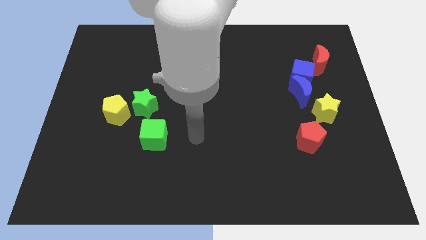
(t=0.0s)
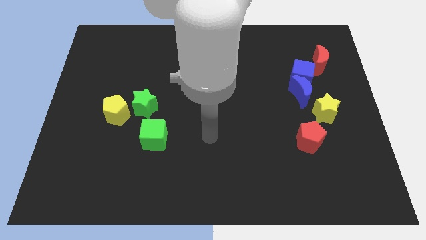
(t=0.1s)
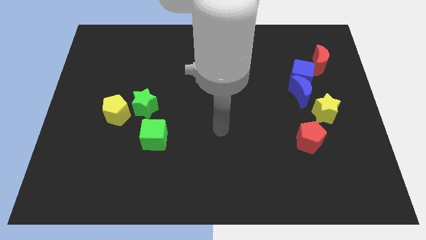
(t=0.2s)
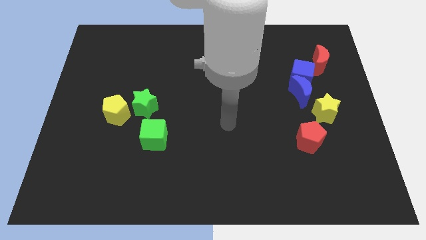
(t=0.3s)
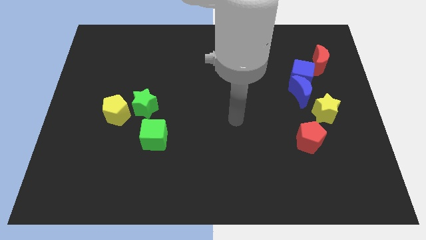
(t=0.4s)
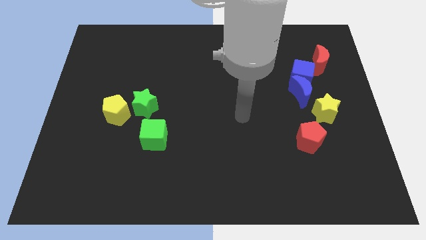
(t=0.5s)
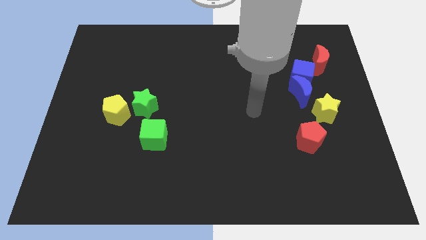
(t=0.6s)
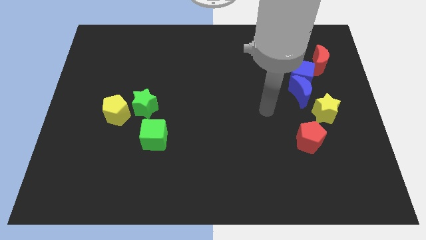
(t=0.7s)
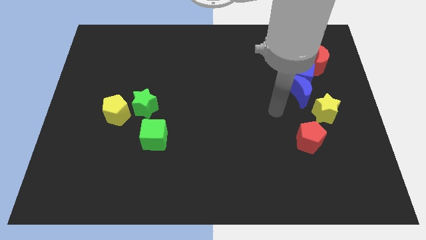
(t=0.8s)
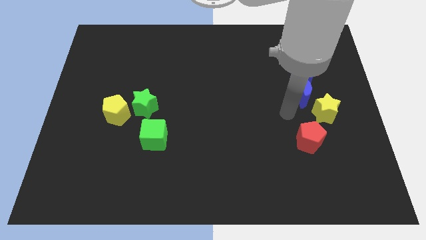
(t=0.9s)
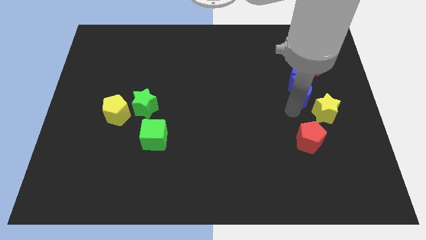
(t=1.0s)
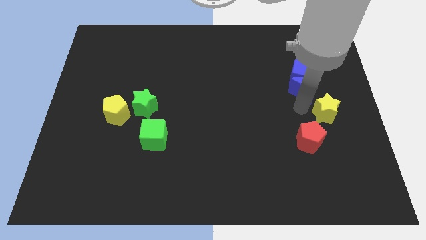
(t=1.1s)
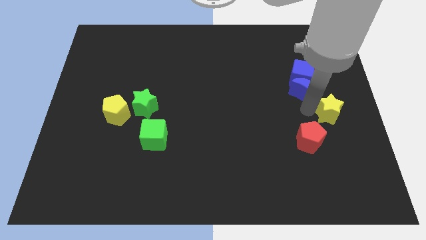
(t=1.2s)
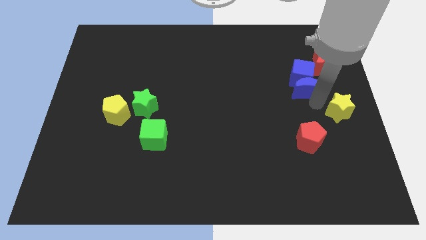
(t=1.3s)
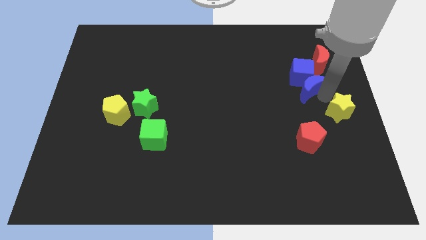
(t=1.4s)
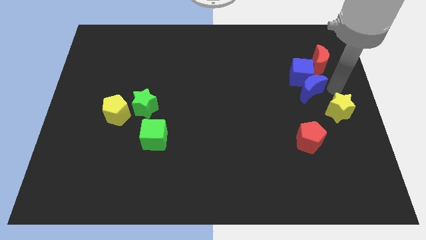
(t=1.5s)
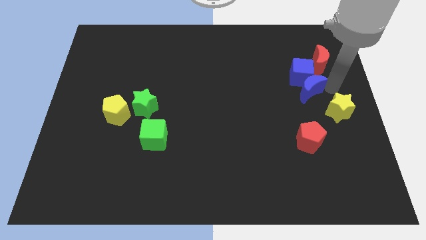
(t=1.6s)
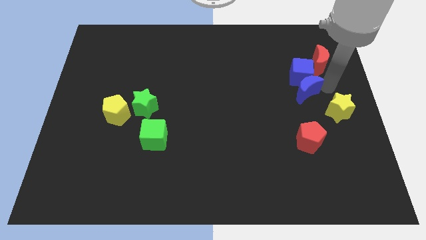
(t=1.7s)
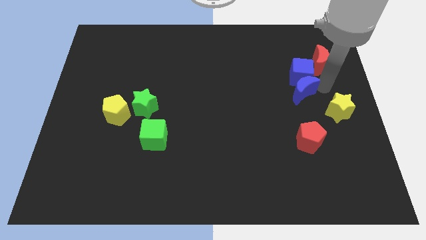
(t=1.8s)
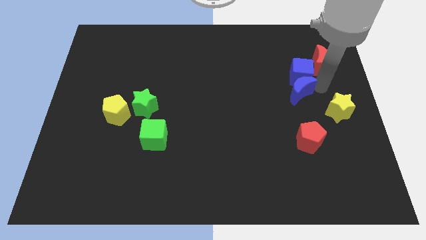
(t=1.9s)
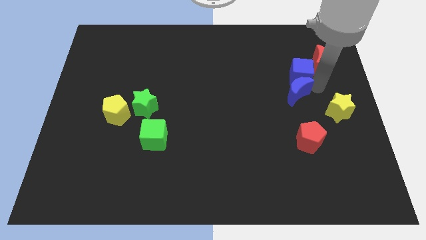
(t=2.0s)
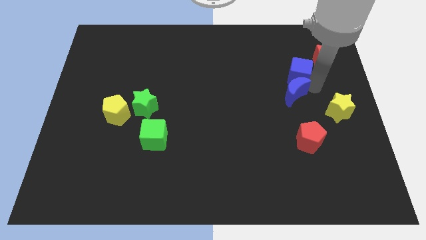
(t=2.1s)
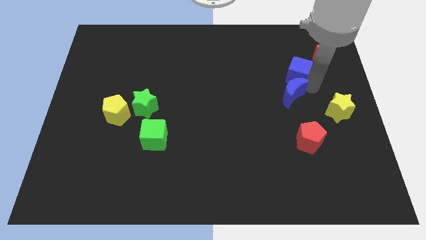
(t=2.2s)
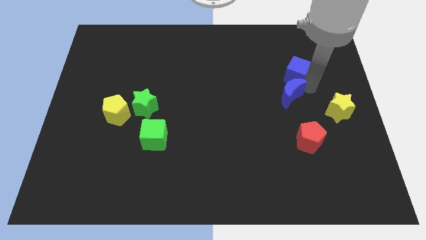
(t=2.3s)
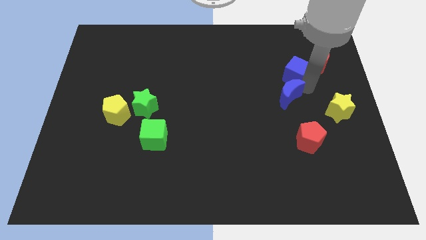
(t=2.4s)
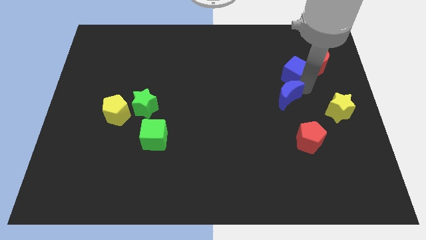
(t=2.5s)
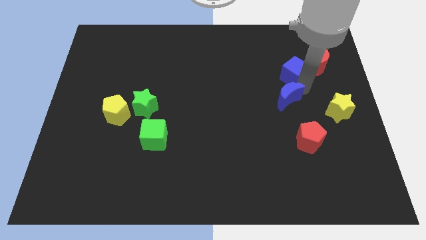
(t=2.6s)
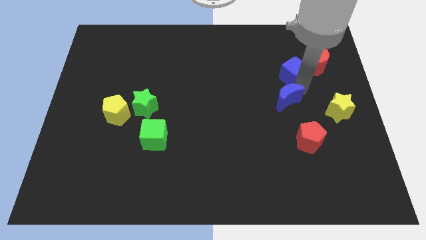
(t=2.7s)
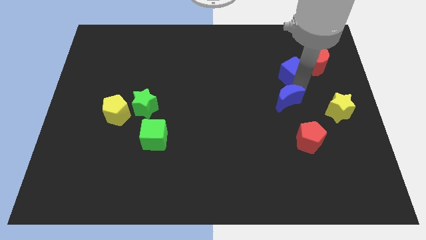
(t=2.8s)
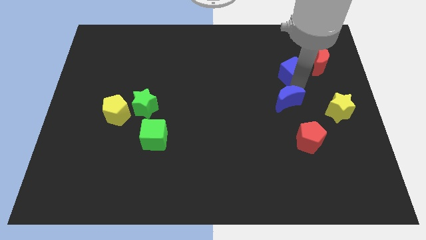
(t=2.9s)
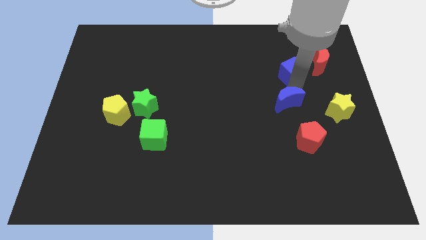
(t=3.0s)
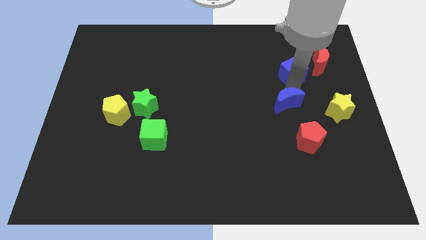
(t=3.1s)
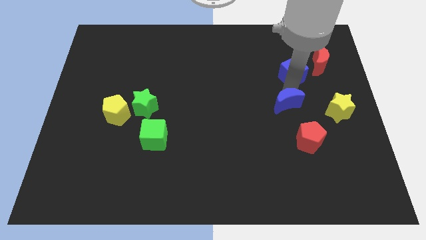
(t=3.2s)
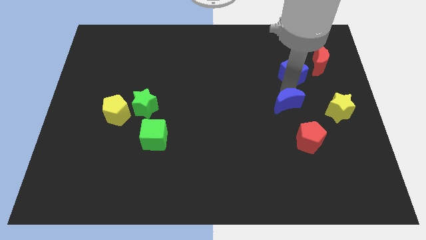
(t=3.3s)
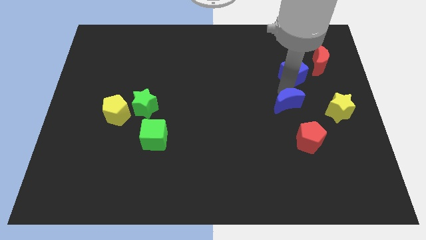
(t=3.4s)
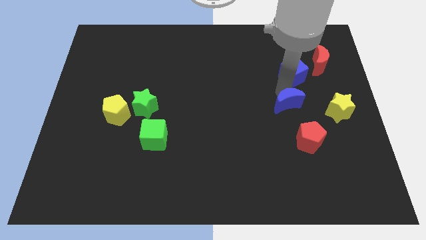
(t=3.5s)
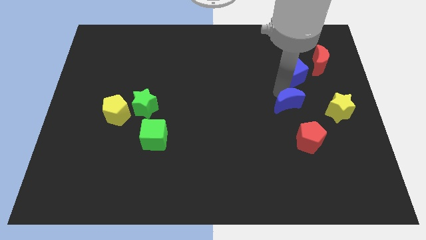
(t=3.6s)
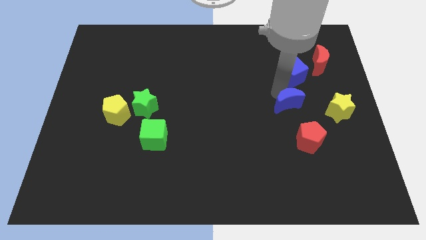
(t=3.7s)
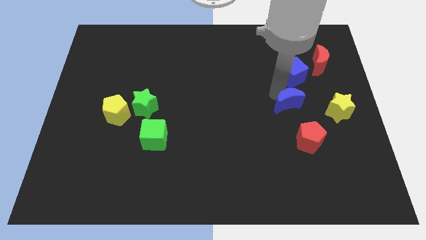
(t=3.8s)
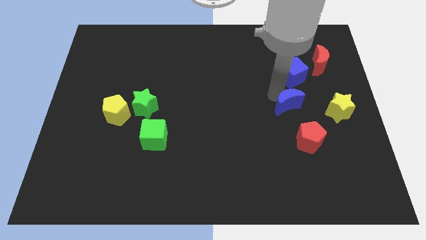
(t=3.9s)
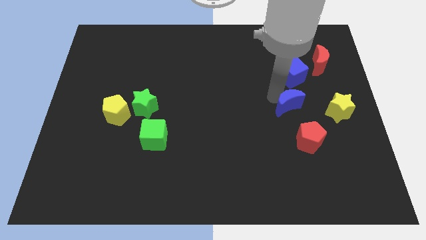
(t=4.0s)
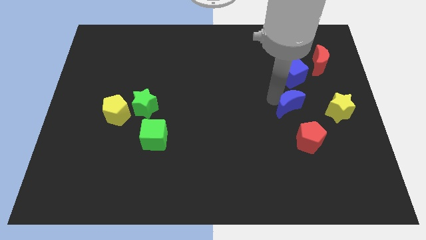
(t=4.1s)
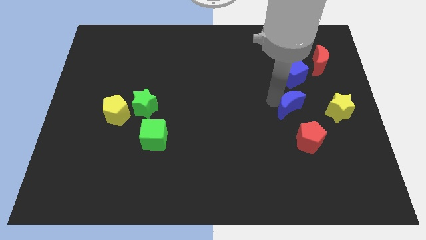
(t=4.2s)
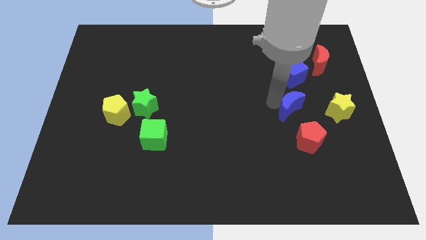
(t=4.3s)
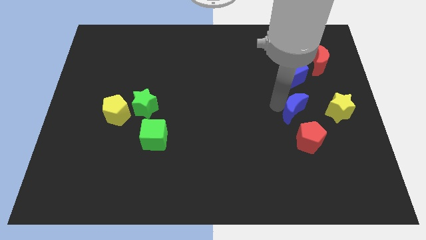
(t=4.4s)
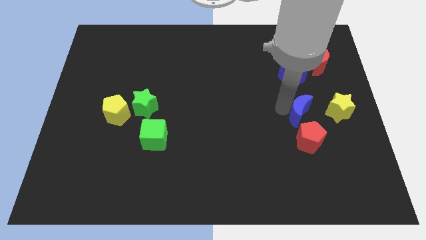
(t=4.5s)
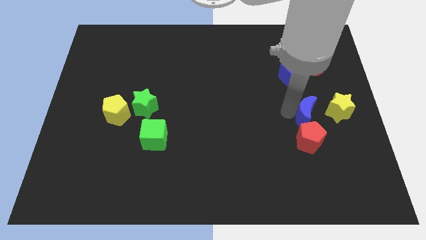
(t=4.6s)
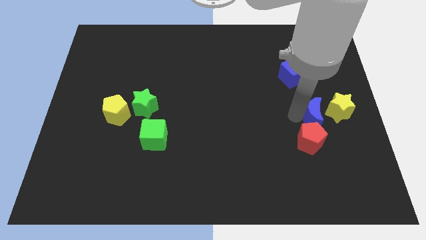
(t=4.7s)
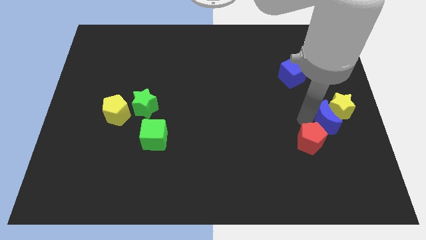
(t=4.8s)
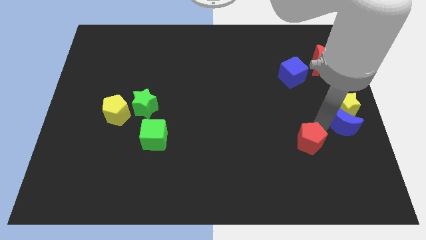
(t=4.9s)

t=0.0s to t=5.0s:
pull the blue moon apart from the blue cube and yellow star

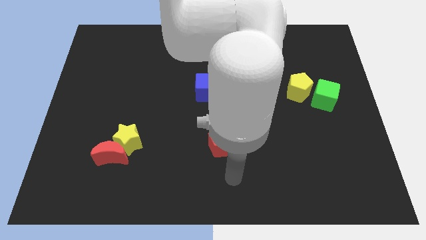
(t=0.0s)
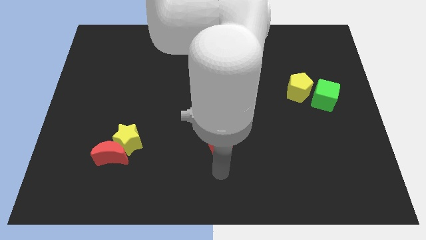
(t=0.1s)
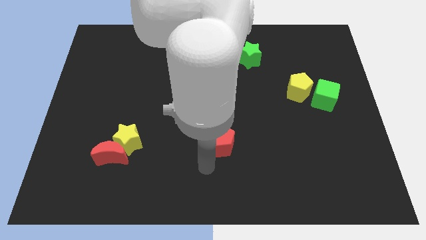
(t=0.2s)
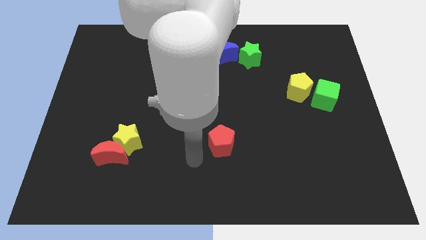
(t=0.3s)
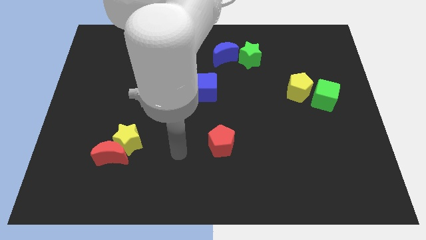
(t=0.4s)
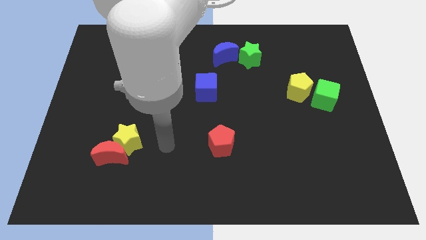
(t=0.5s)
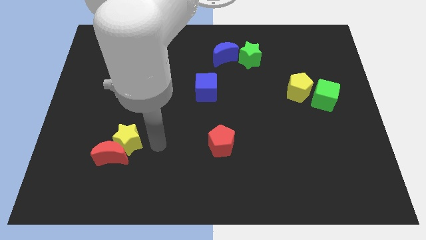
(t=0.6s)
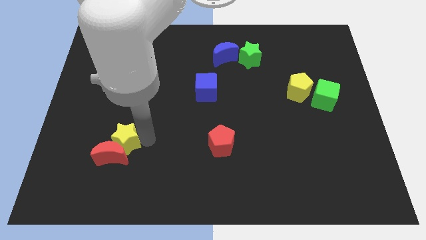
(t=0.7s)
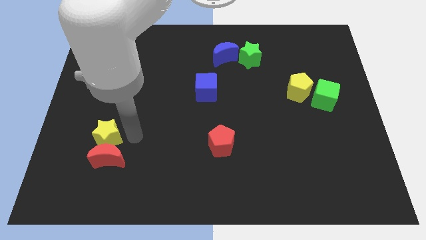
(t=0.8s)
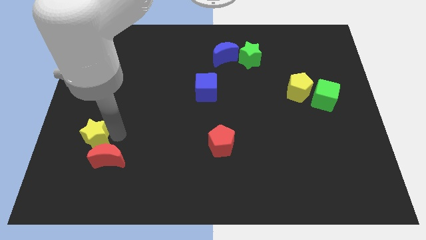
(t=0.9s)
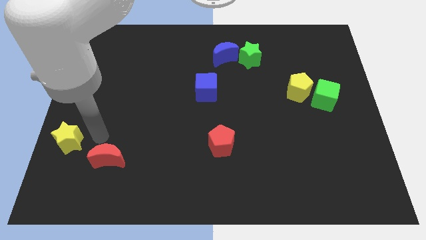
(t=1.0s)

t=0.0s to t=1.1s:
separate the red moon from the yellow star

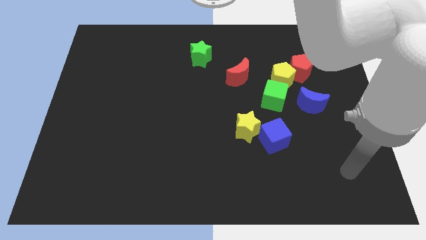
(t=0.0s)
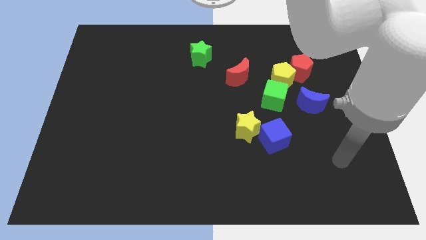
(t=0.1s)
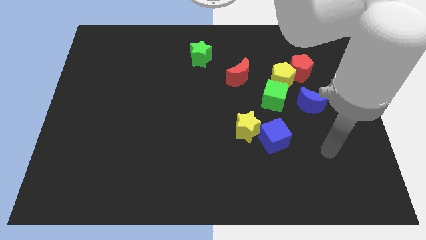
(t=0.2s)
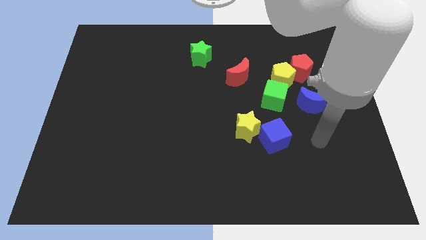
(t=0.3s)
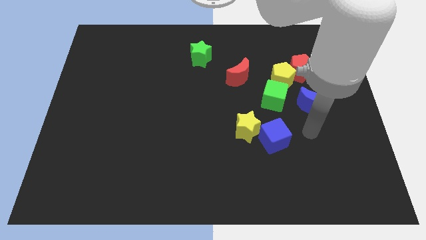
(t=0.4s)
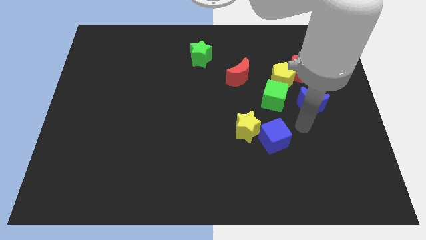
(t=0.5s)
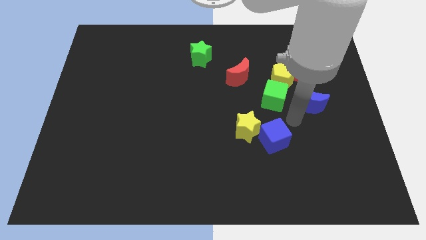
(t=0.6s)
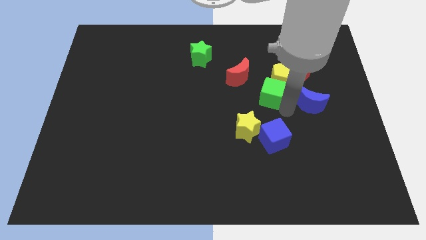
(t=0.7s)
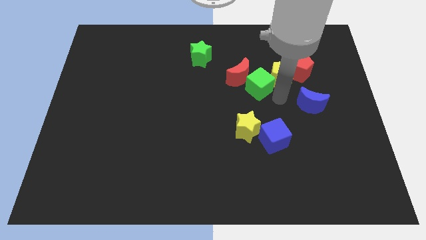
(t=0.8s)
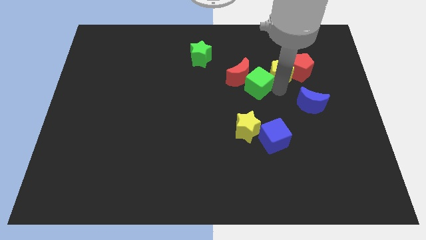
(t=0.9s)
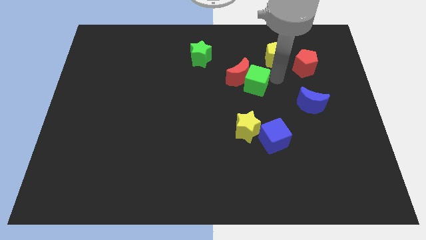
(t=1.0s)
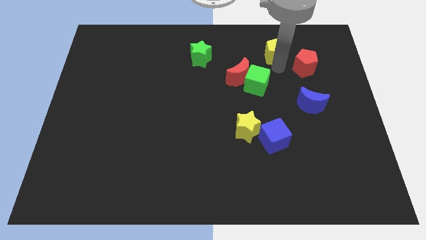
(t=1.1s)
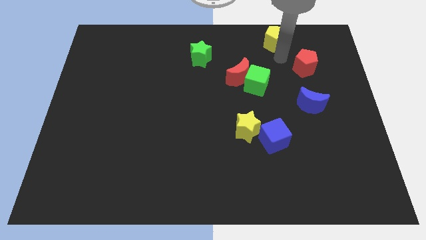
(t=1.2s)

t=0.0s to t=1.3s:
pull the red pentagon apart from the yellow pentagon

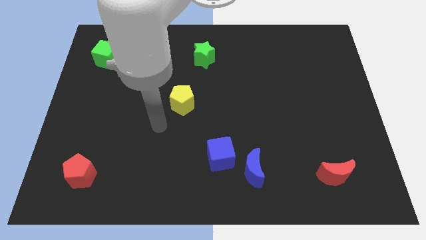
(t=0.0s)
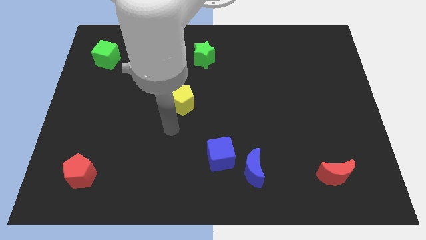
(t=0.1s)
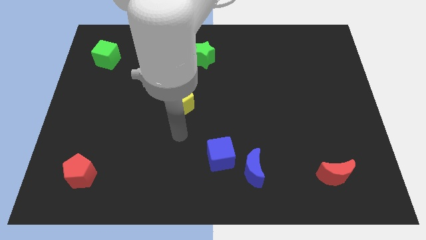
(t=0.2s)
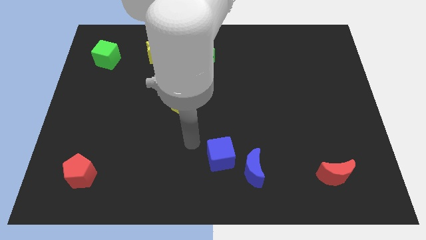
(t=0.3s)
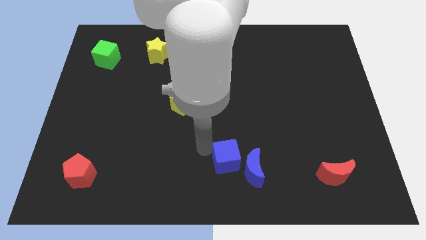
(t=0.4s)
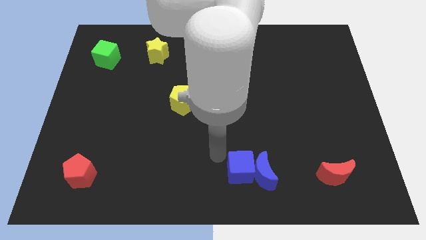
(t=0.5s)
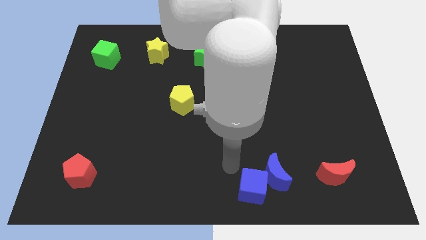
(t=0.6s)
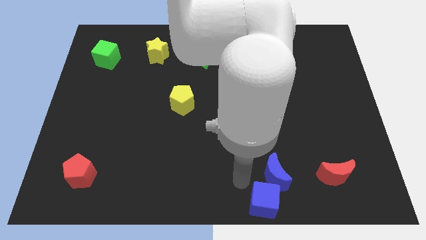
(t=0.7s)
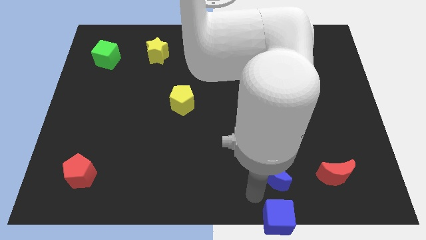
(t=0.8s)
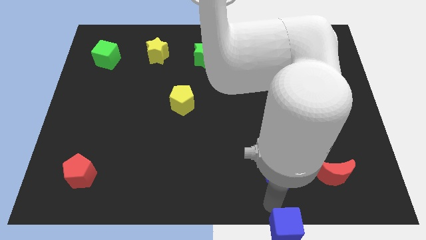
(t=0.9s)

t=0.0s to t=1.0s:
move the blue moon away from the blue cube

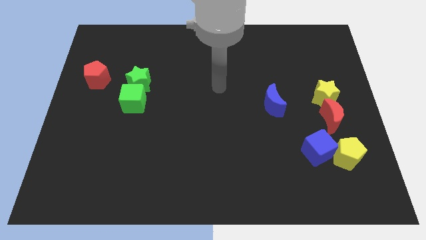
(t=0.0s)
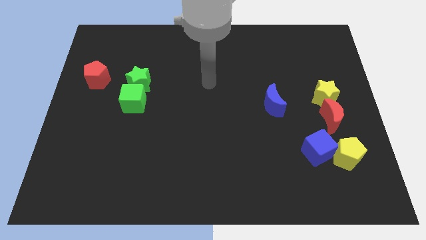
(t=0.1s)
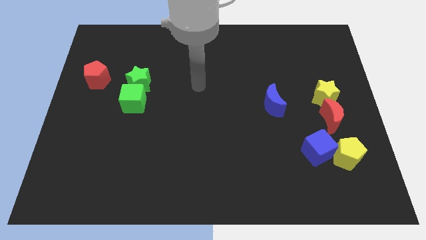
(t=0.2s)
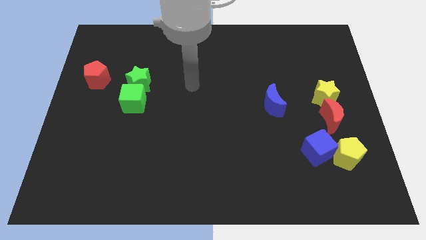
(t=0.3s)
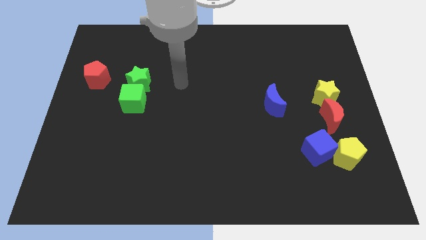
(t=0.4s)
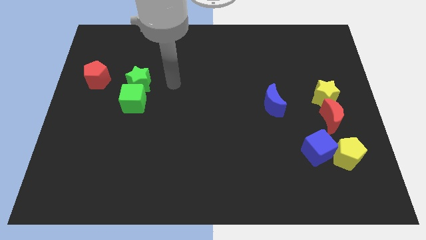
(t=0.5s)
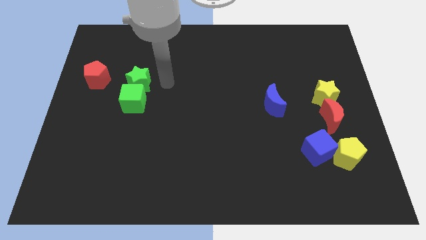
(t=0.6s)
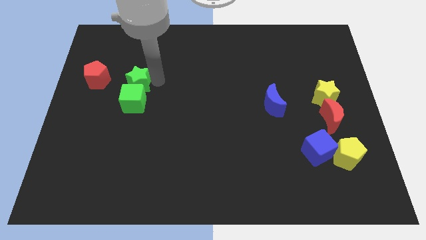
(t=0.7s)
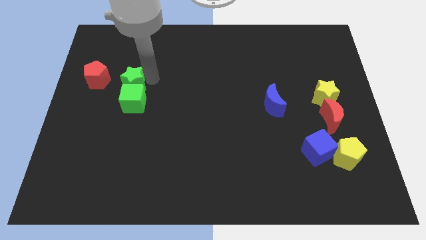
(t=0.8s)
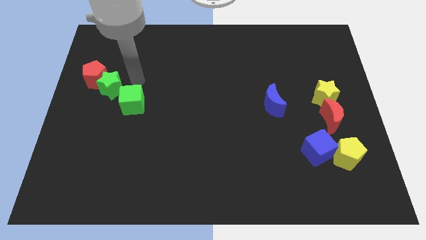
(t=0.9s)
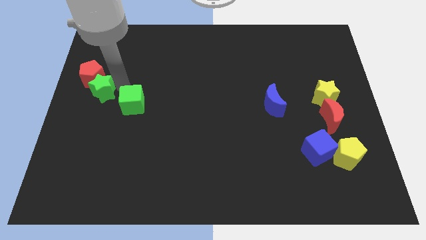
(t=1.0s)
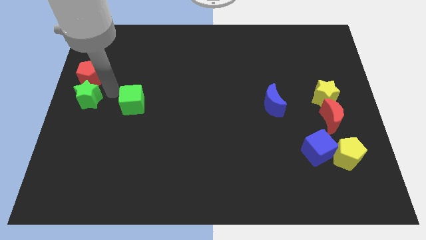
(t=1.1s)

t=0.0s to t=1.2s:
separate the green cube from the green star
